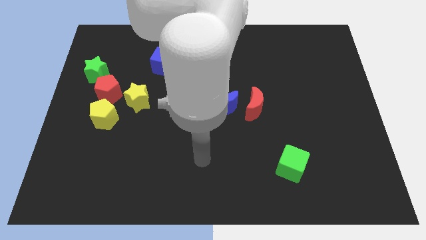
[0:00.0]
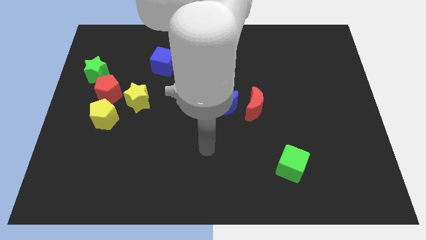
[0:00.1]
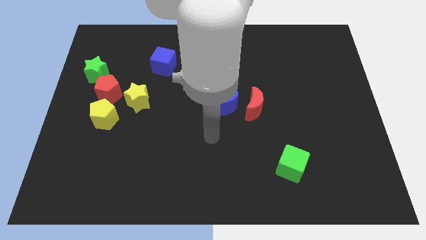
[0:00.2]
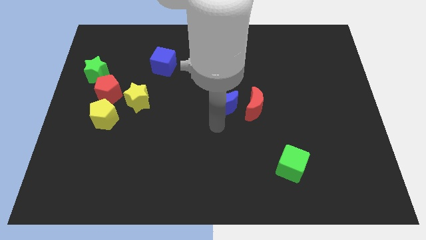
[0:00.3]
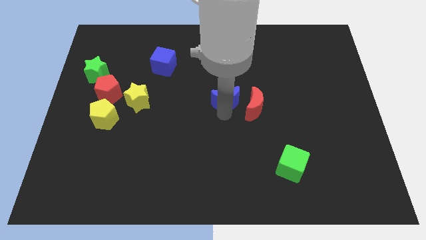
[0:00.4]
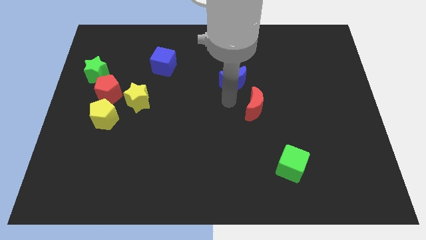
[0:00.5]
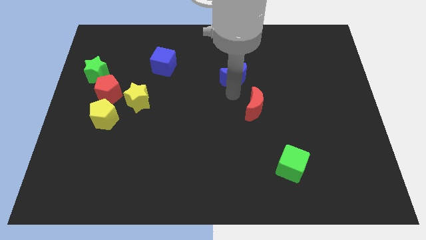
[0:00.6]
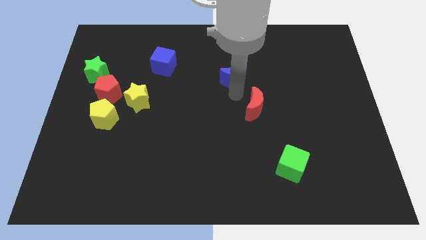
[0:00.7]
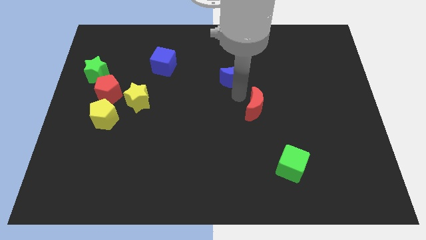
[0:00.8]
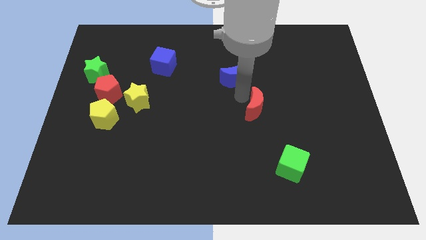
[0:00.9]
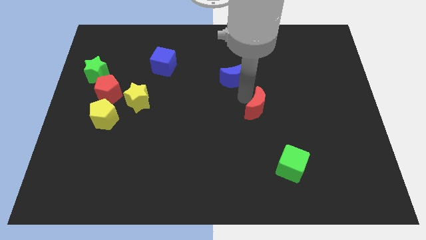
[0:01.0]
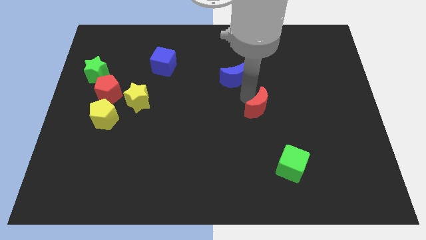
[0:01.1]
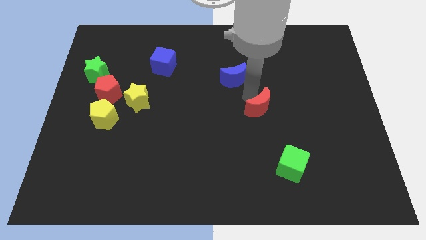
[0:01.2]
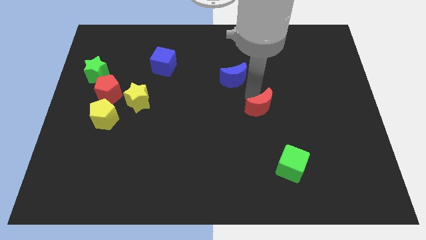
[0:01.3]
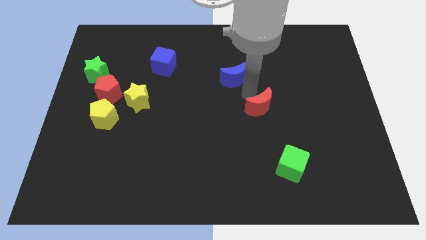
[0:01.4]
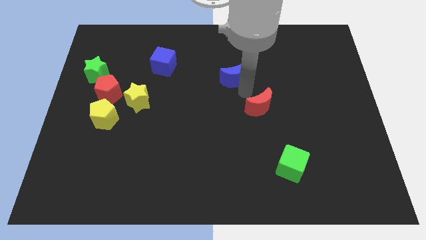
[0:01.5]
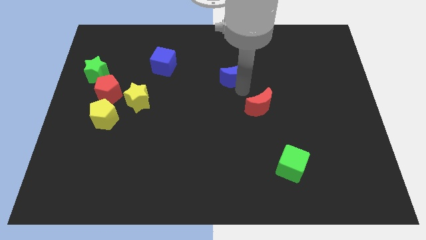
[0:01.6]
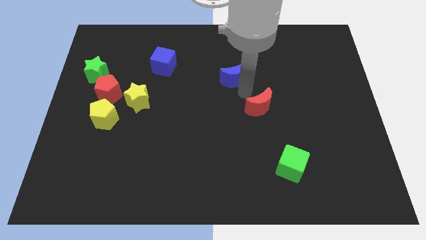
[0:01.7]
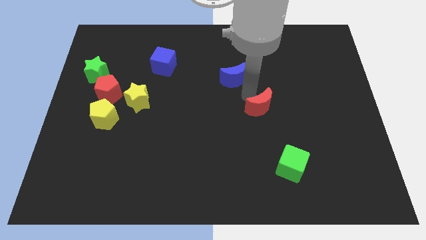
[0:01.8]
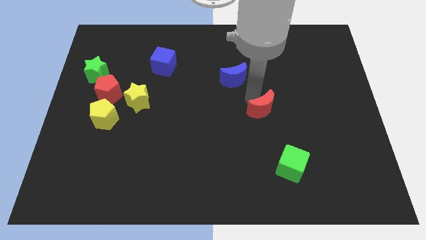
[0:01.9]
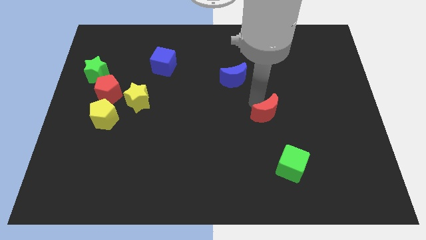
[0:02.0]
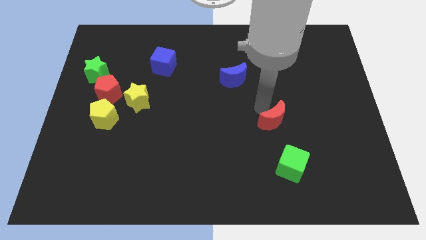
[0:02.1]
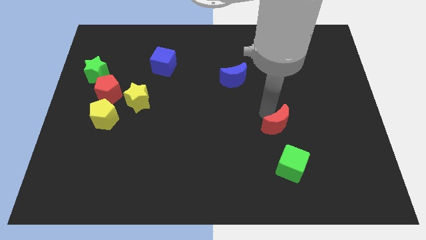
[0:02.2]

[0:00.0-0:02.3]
slide the red moon down and right diagonally a little

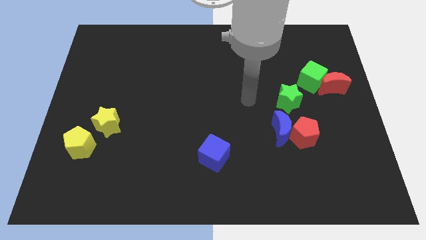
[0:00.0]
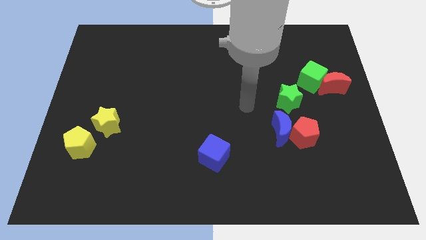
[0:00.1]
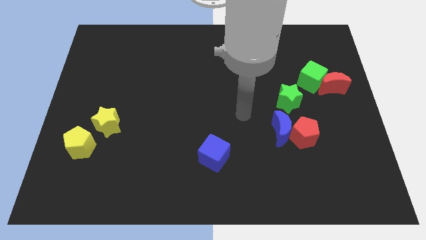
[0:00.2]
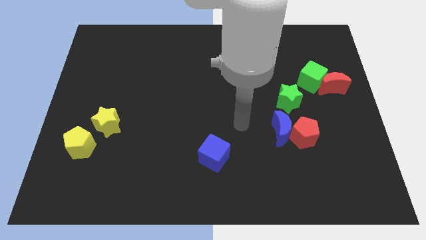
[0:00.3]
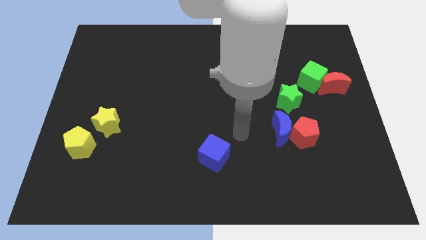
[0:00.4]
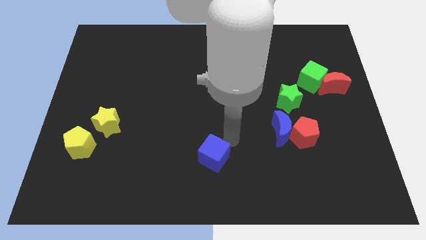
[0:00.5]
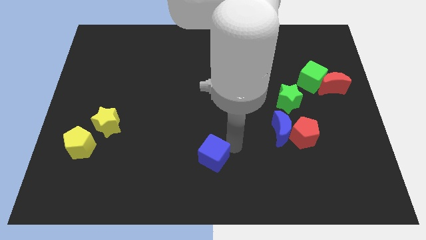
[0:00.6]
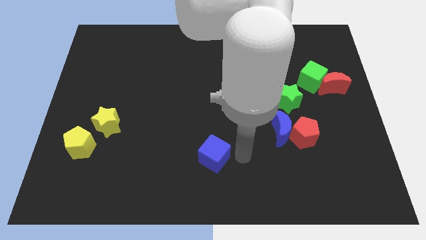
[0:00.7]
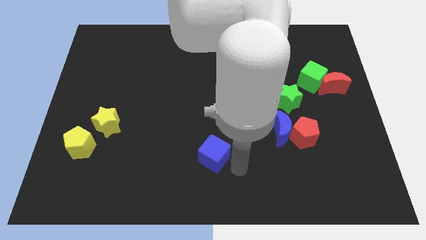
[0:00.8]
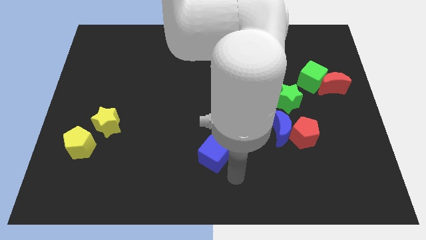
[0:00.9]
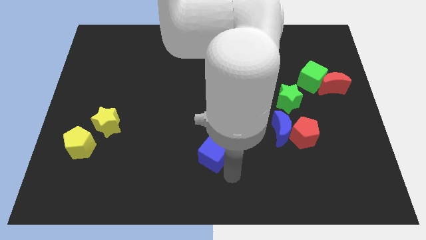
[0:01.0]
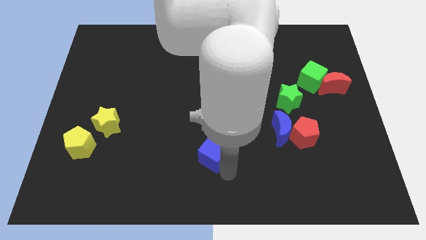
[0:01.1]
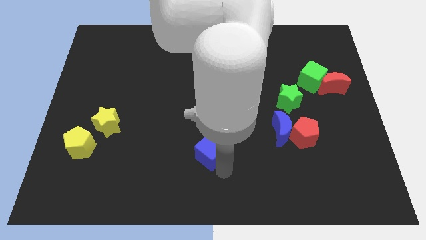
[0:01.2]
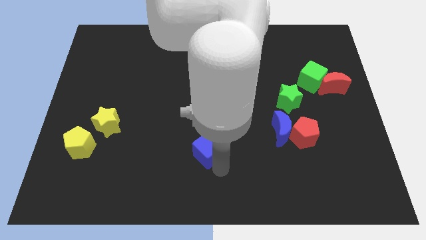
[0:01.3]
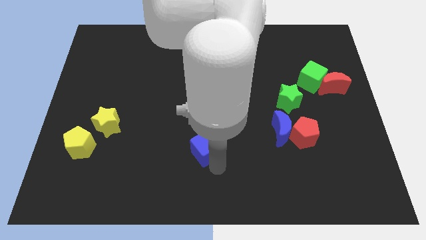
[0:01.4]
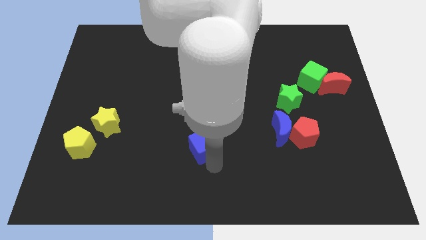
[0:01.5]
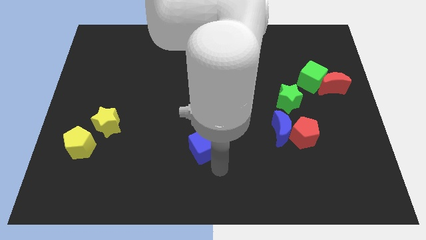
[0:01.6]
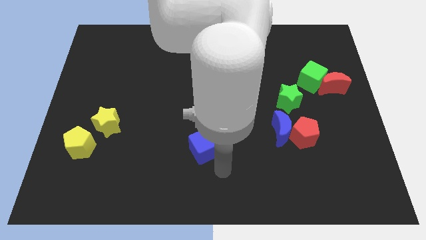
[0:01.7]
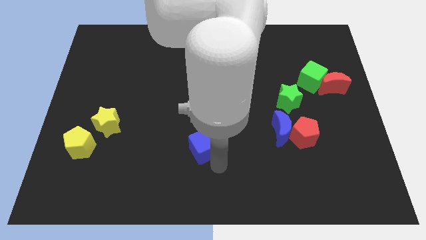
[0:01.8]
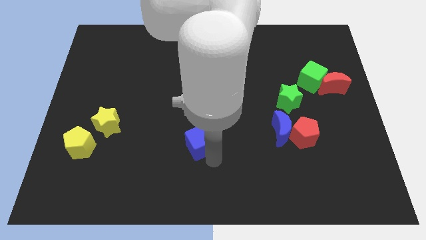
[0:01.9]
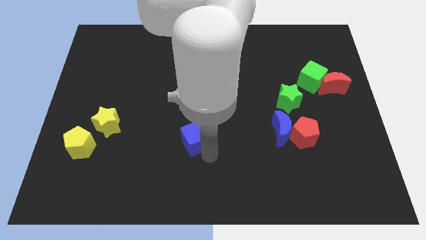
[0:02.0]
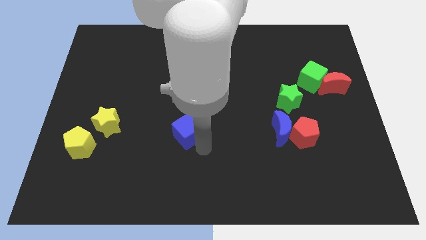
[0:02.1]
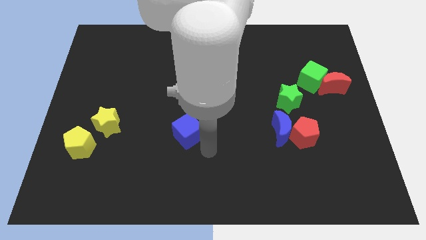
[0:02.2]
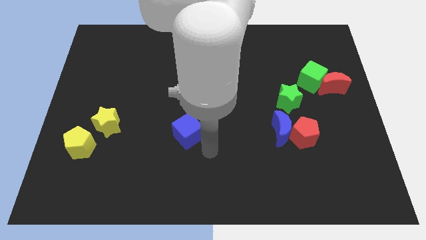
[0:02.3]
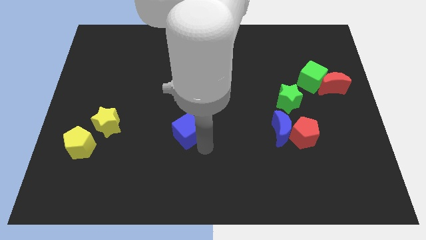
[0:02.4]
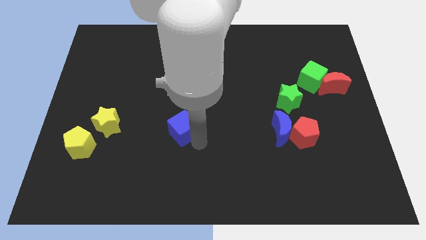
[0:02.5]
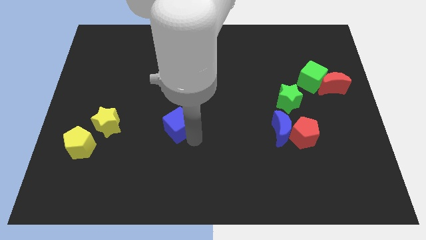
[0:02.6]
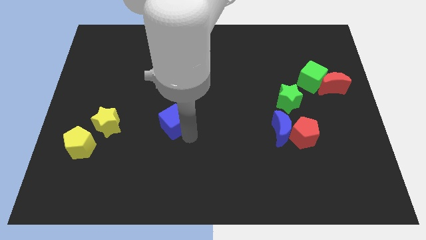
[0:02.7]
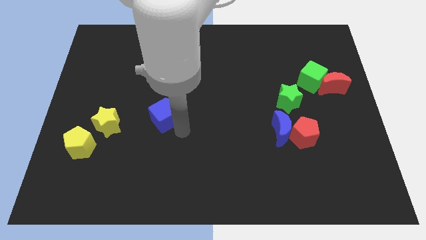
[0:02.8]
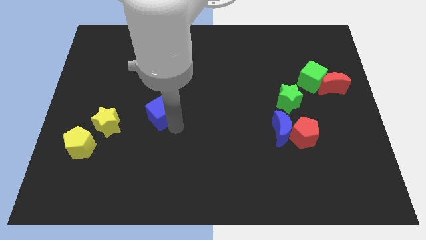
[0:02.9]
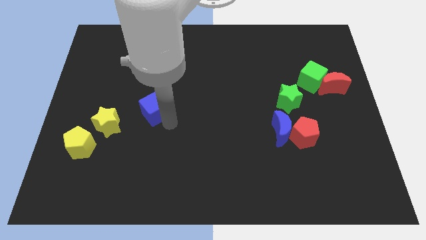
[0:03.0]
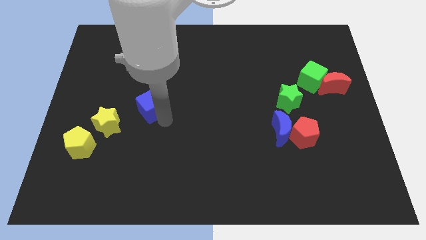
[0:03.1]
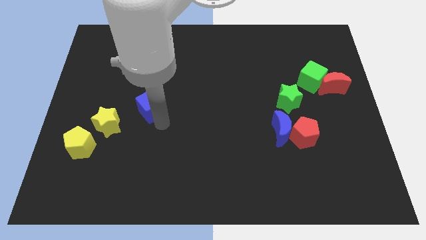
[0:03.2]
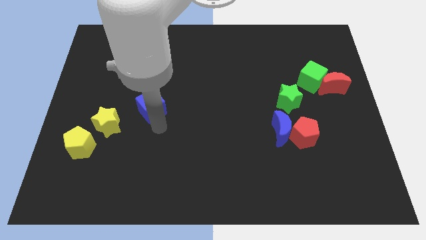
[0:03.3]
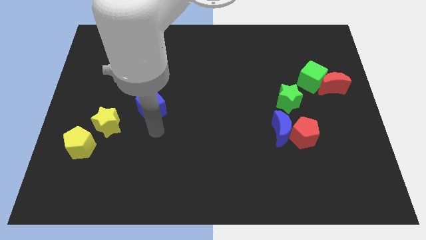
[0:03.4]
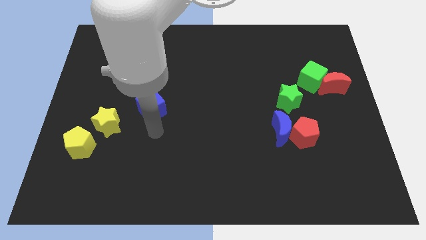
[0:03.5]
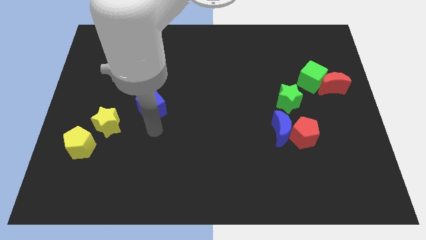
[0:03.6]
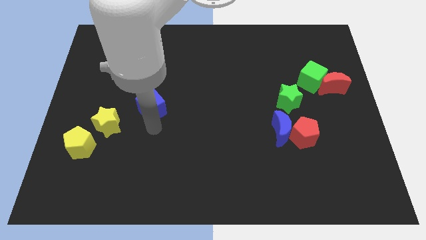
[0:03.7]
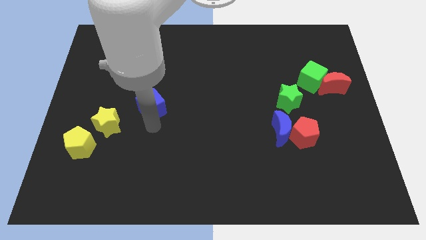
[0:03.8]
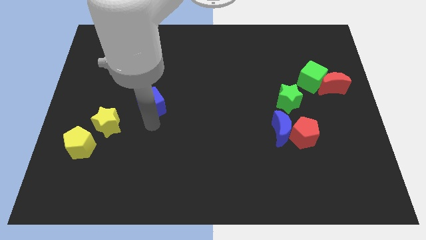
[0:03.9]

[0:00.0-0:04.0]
move the blue cube upwards and to the left diagonally

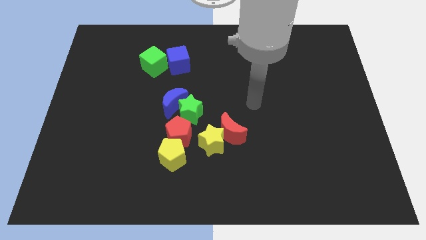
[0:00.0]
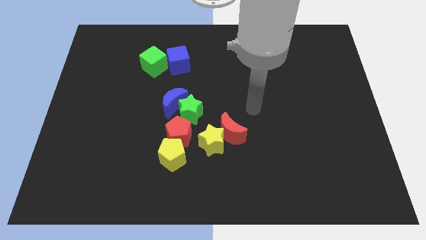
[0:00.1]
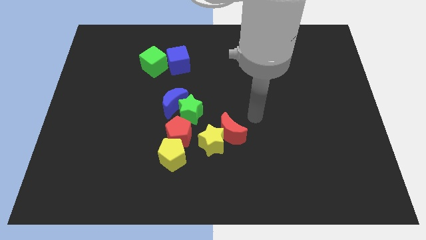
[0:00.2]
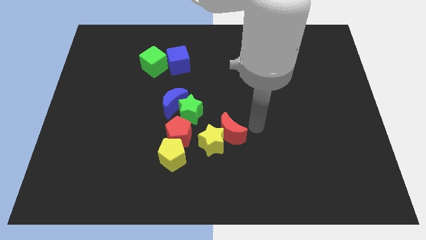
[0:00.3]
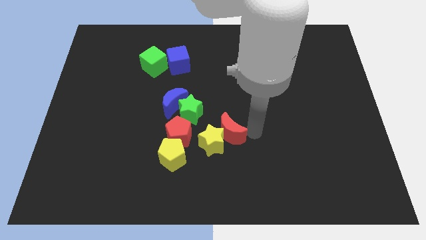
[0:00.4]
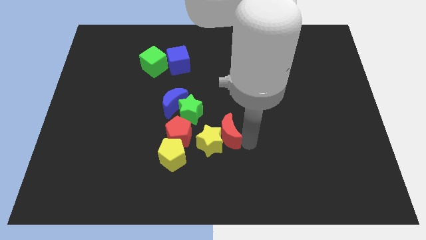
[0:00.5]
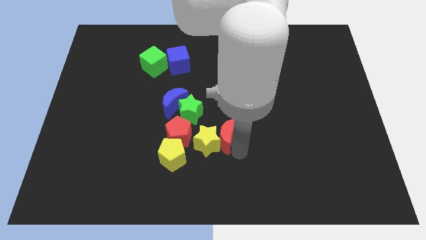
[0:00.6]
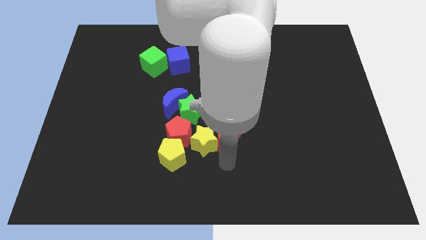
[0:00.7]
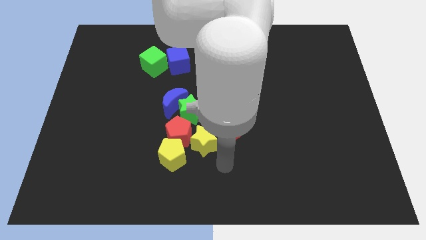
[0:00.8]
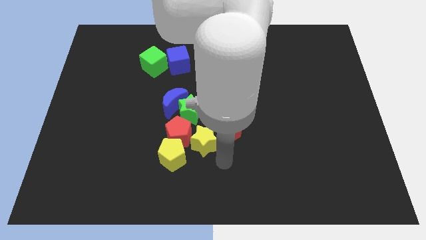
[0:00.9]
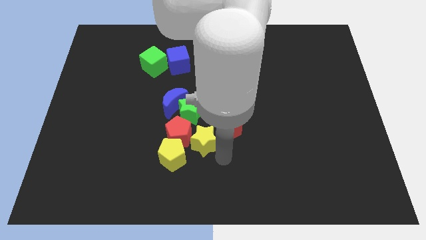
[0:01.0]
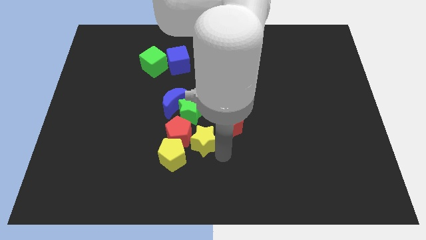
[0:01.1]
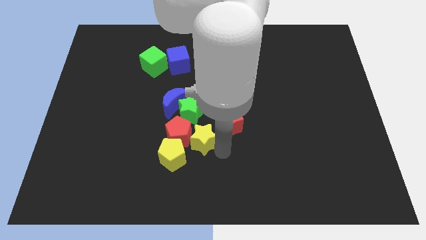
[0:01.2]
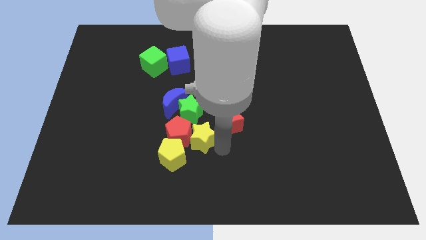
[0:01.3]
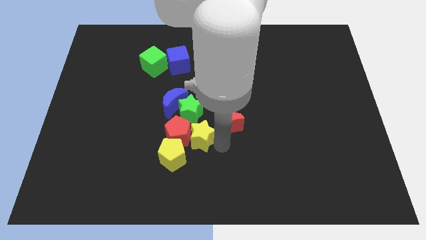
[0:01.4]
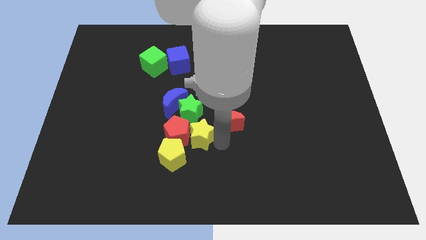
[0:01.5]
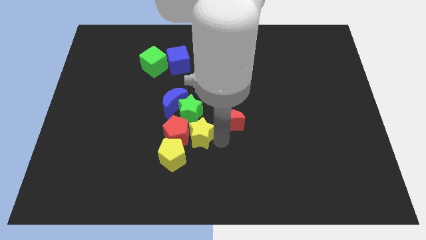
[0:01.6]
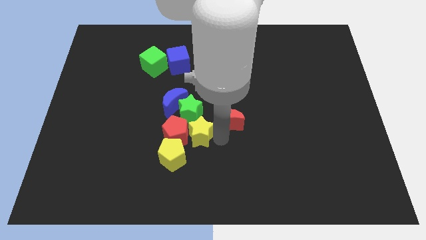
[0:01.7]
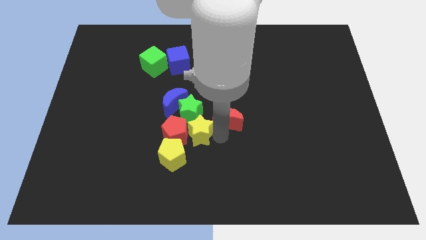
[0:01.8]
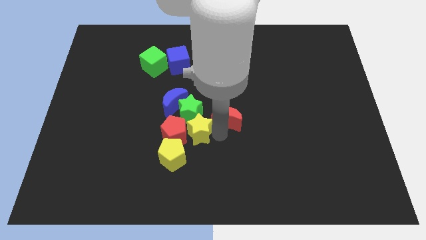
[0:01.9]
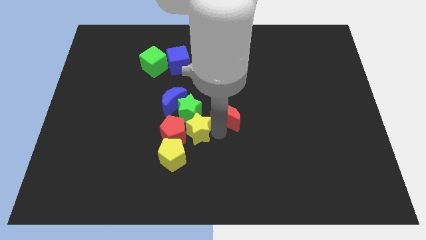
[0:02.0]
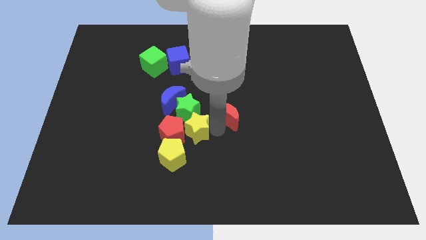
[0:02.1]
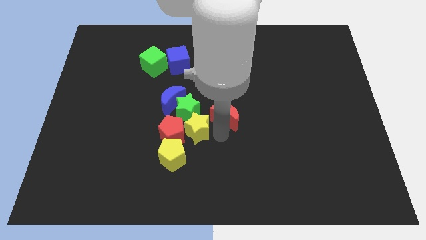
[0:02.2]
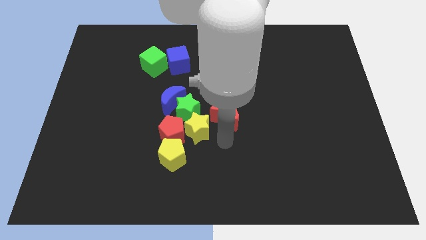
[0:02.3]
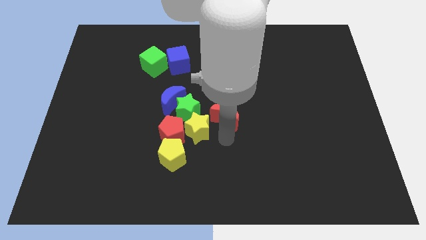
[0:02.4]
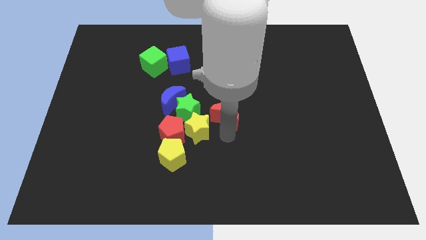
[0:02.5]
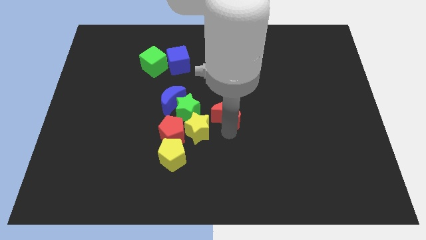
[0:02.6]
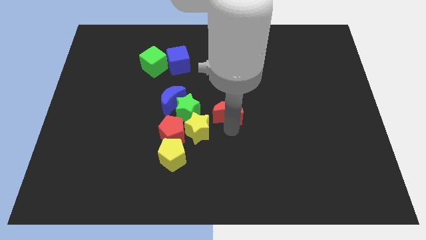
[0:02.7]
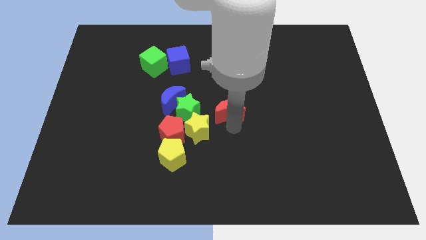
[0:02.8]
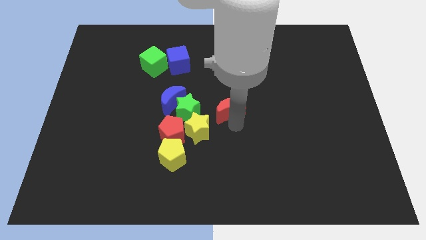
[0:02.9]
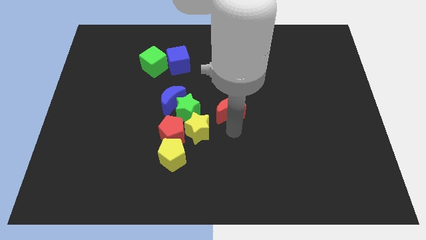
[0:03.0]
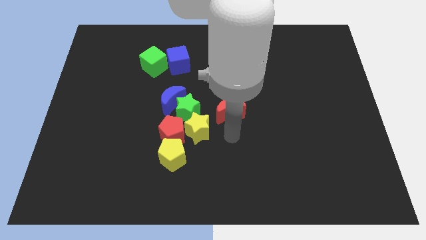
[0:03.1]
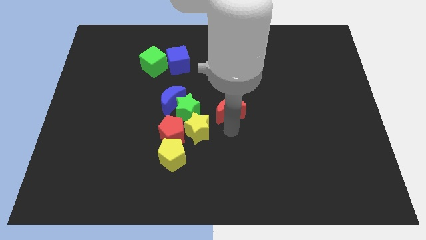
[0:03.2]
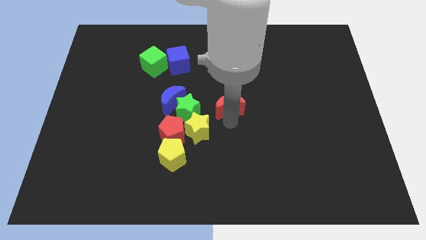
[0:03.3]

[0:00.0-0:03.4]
slide the red moon a little bit up
